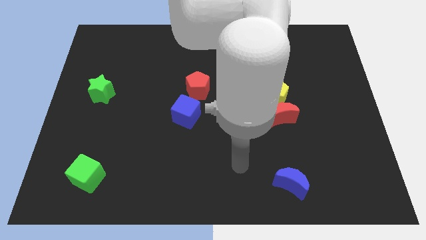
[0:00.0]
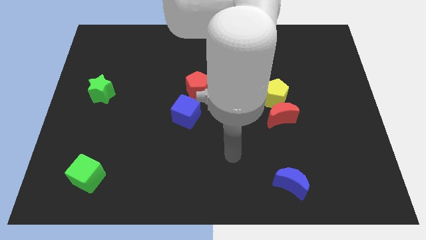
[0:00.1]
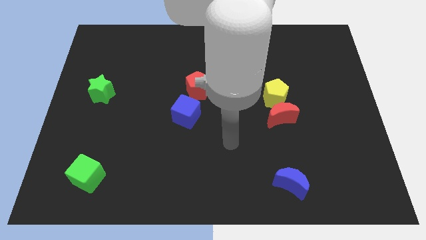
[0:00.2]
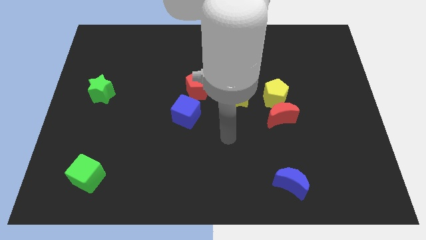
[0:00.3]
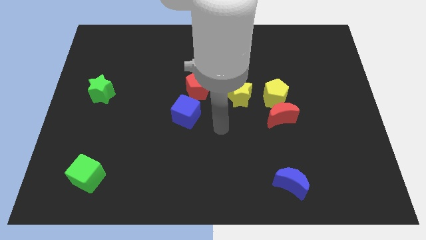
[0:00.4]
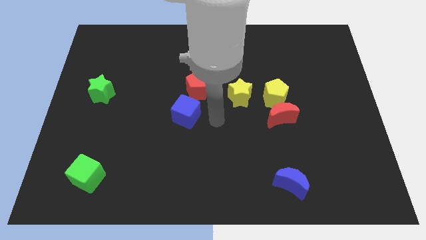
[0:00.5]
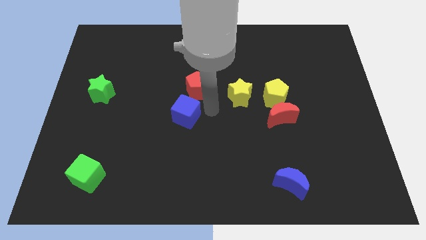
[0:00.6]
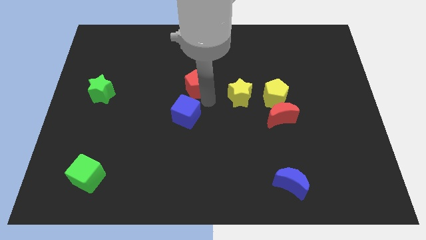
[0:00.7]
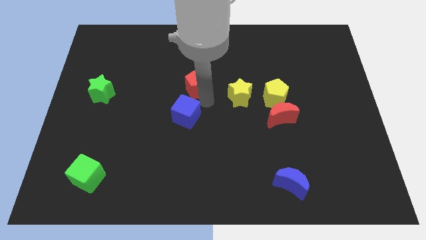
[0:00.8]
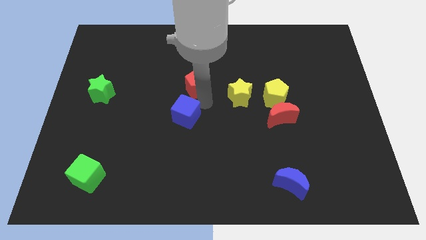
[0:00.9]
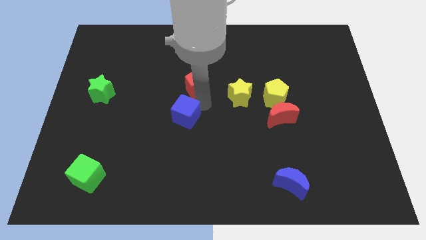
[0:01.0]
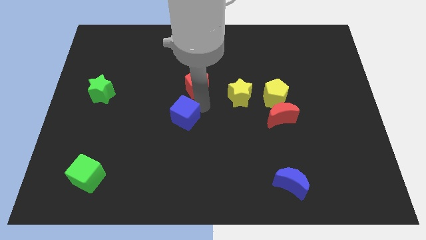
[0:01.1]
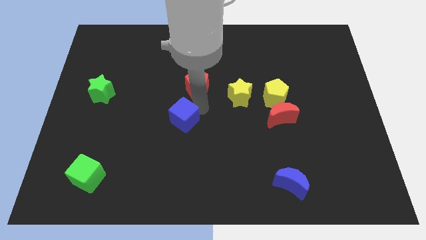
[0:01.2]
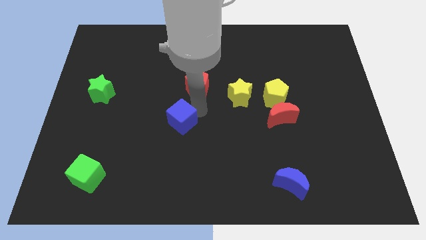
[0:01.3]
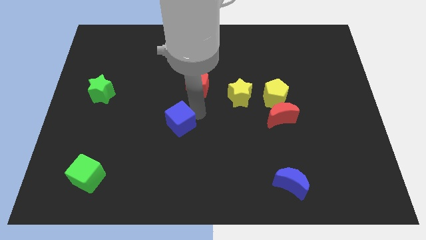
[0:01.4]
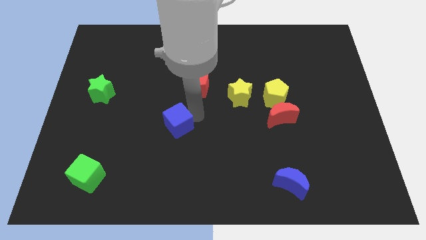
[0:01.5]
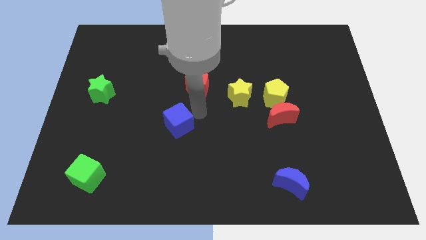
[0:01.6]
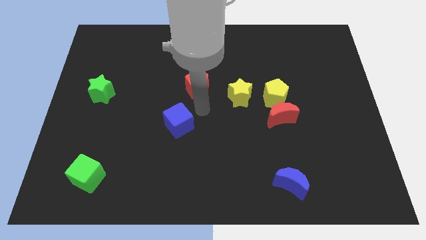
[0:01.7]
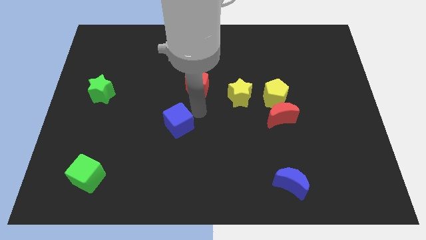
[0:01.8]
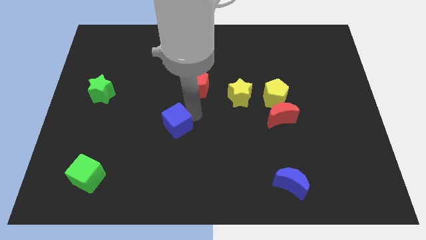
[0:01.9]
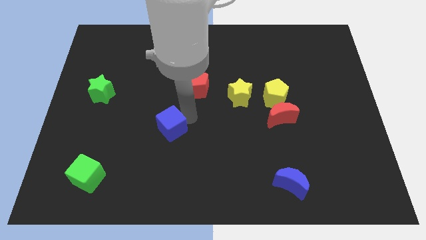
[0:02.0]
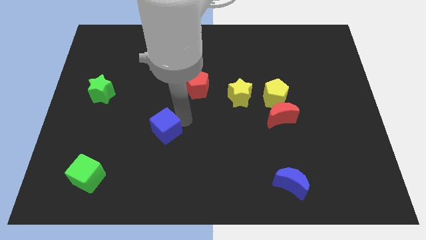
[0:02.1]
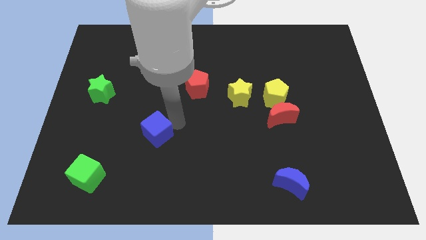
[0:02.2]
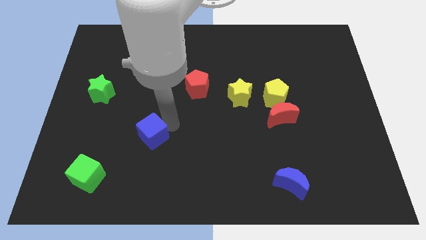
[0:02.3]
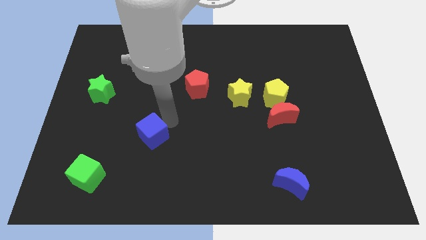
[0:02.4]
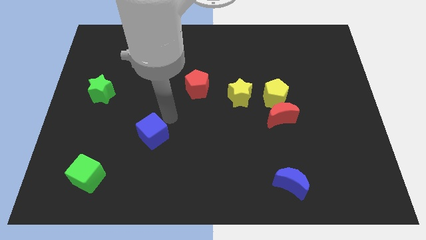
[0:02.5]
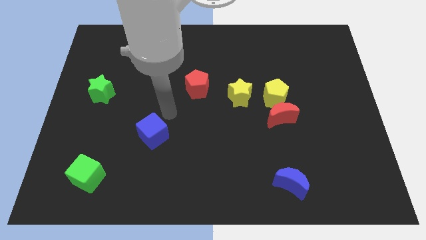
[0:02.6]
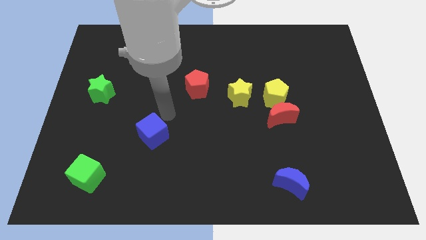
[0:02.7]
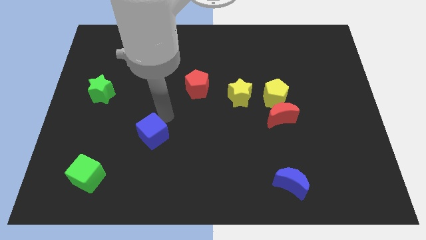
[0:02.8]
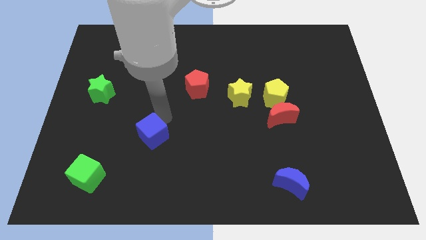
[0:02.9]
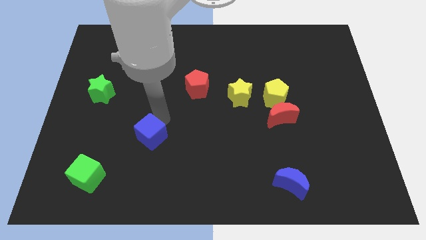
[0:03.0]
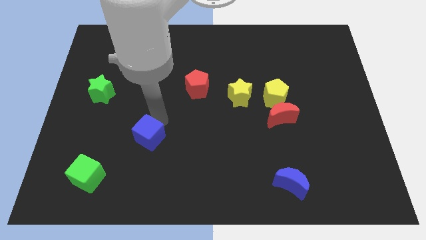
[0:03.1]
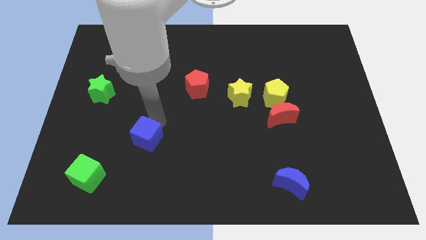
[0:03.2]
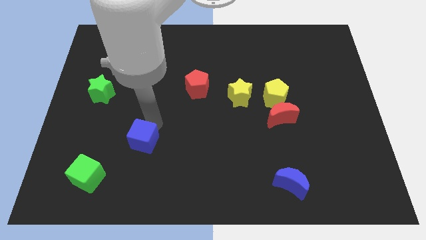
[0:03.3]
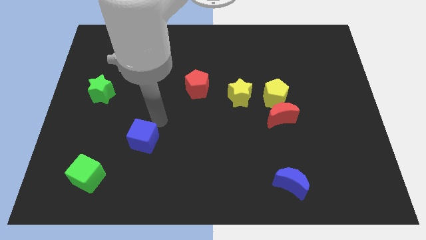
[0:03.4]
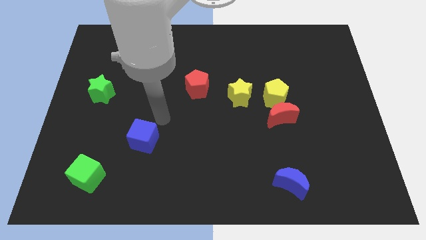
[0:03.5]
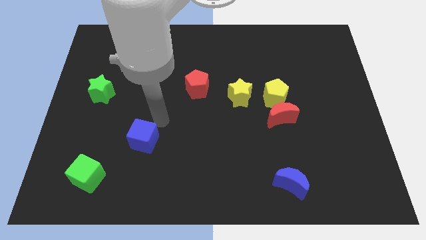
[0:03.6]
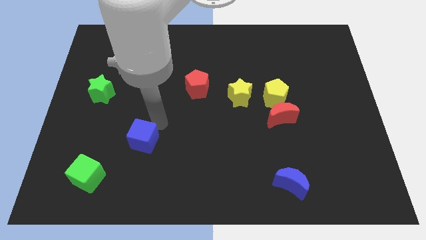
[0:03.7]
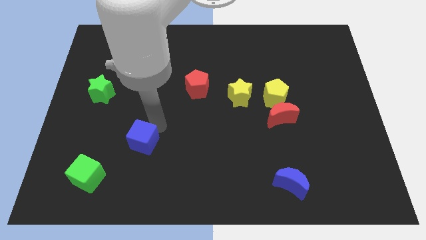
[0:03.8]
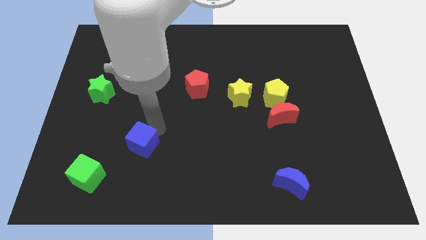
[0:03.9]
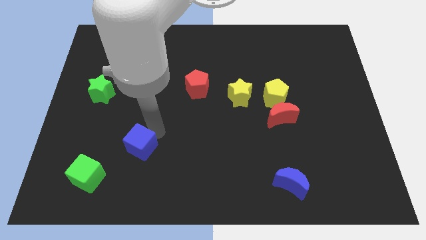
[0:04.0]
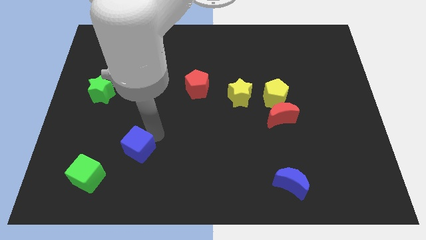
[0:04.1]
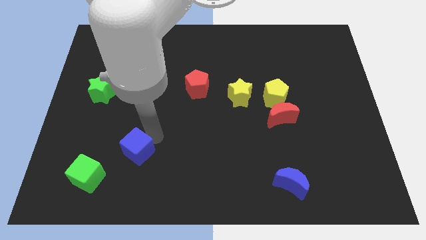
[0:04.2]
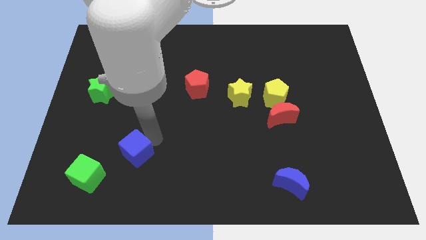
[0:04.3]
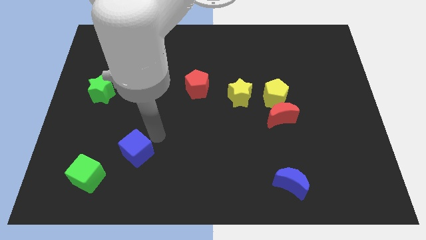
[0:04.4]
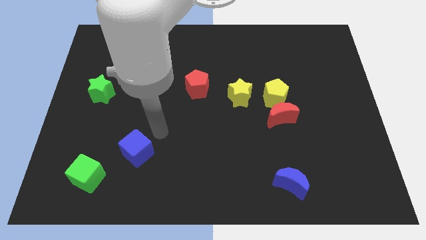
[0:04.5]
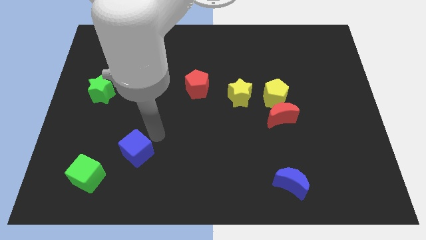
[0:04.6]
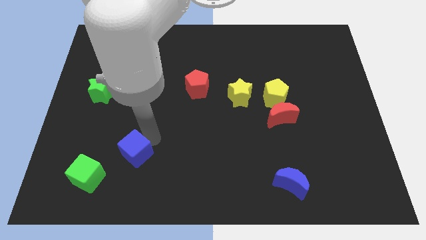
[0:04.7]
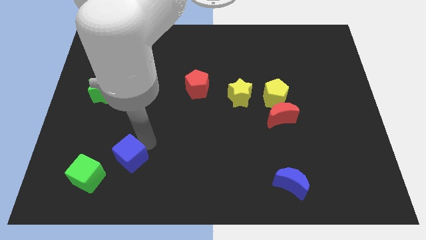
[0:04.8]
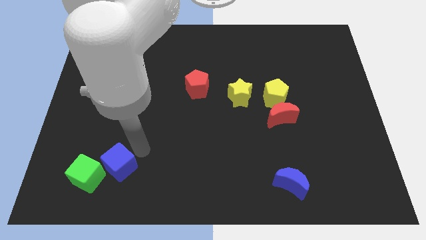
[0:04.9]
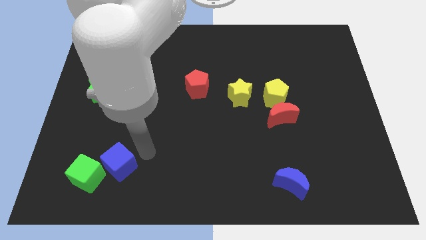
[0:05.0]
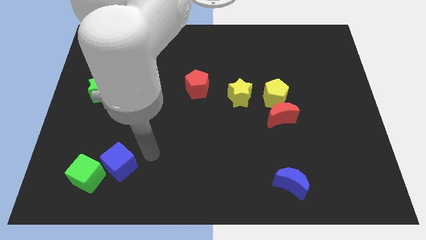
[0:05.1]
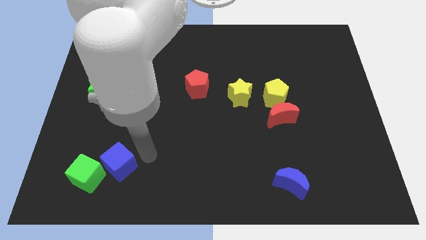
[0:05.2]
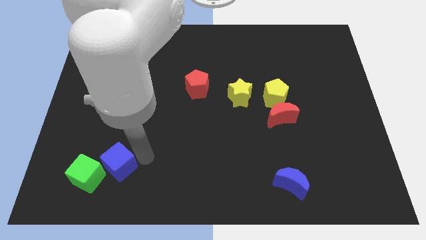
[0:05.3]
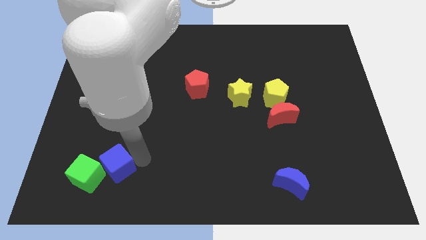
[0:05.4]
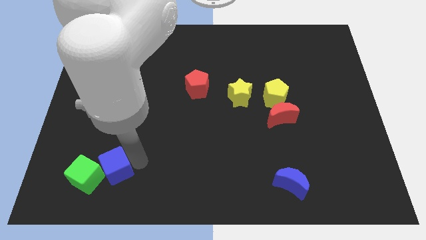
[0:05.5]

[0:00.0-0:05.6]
put the blue cube towards the green cube

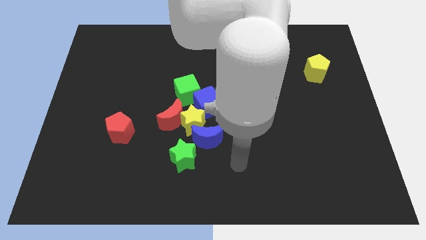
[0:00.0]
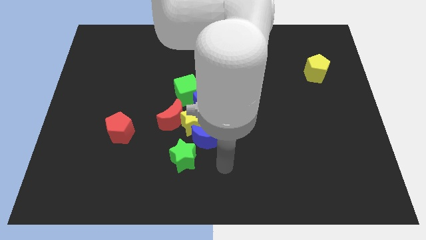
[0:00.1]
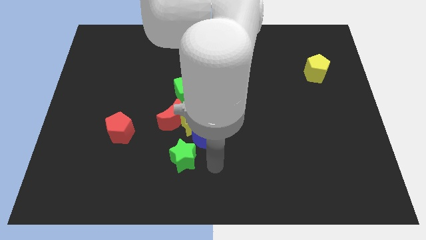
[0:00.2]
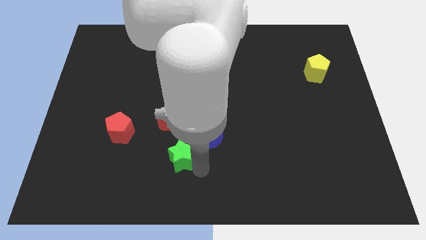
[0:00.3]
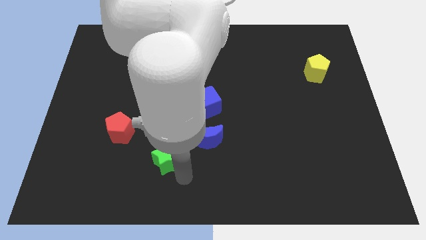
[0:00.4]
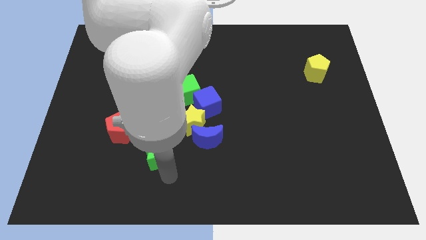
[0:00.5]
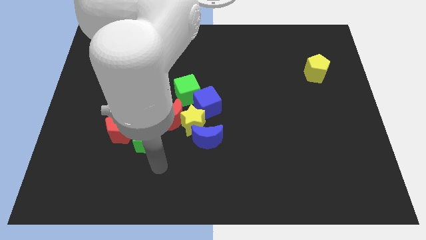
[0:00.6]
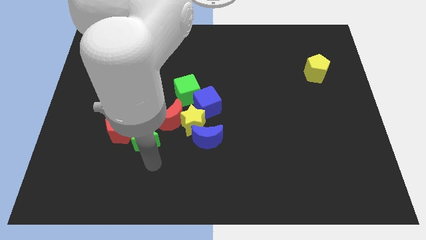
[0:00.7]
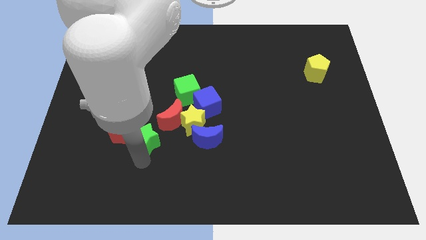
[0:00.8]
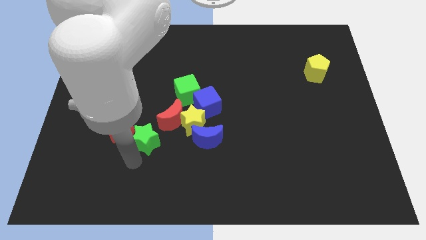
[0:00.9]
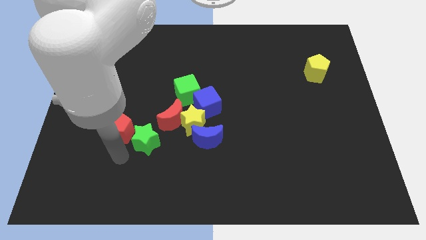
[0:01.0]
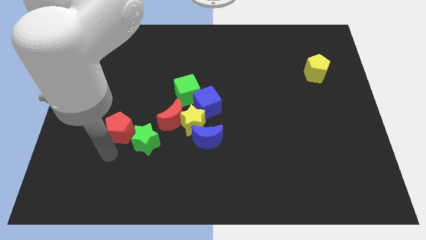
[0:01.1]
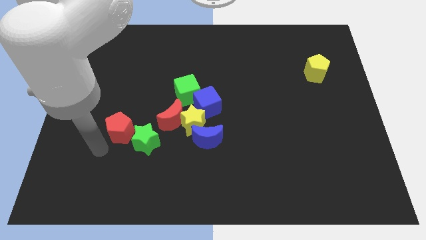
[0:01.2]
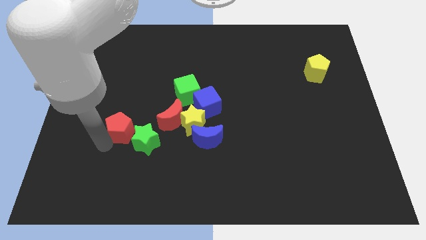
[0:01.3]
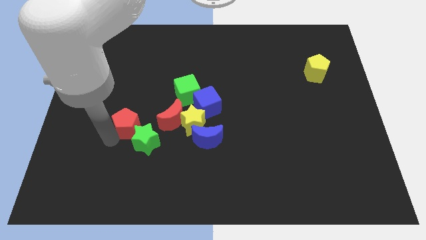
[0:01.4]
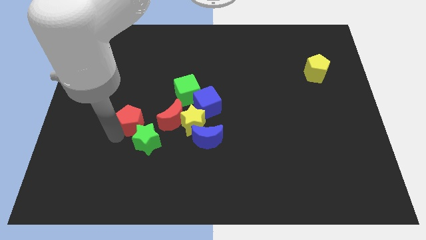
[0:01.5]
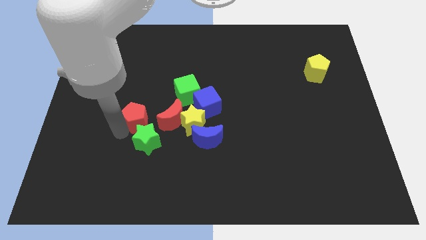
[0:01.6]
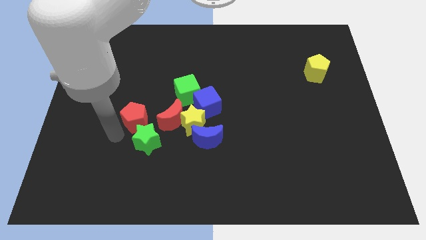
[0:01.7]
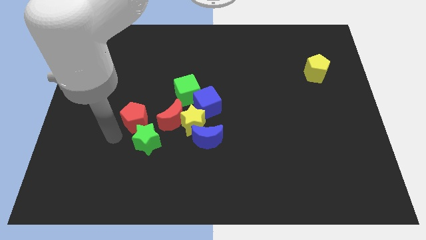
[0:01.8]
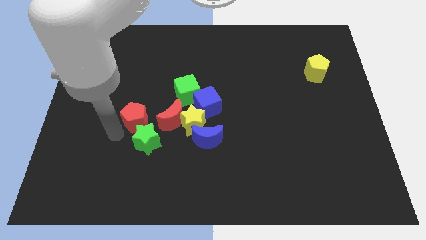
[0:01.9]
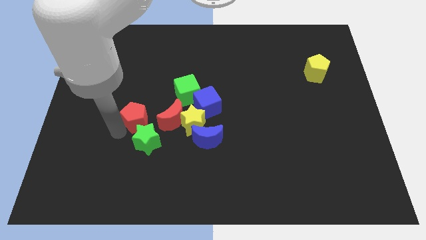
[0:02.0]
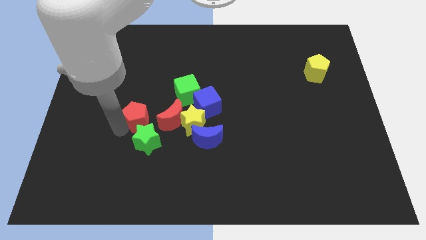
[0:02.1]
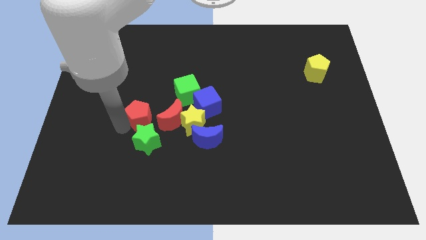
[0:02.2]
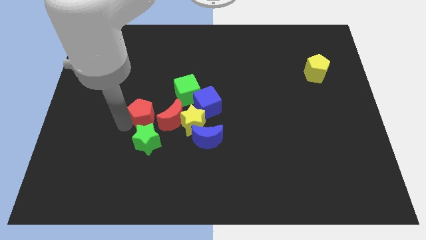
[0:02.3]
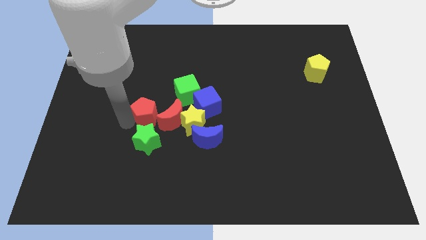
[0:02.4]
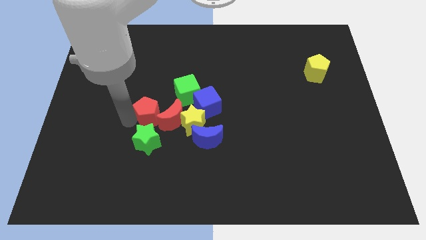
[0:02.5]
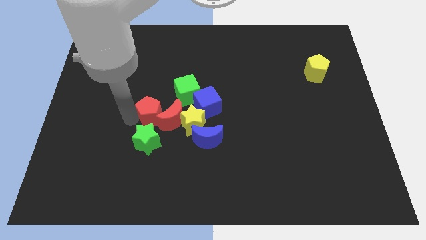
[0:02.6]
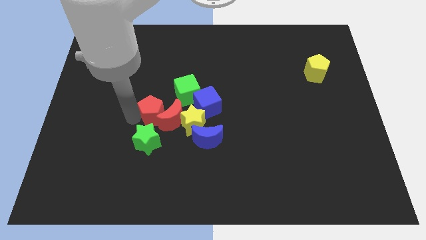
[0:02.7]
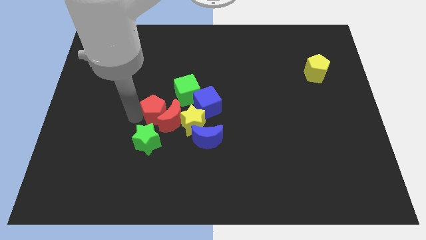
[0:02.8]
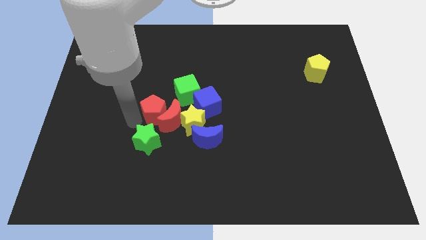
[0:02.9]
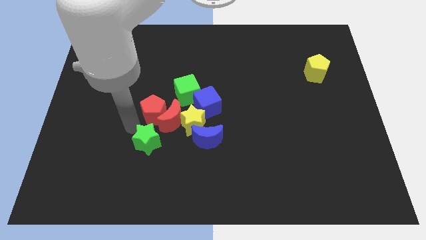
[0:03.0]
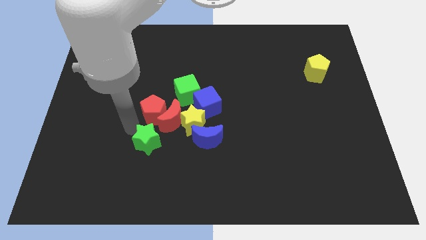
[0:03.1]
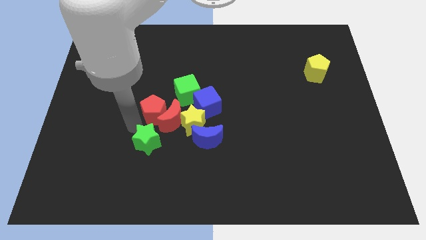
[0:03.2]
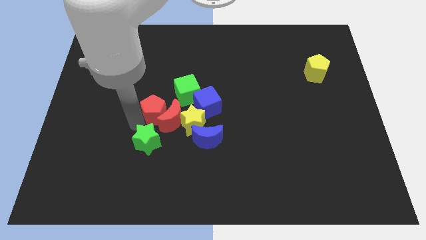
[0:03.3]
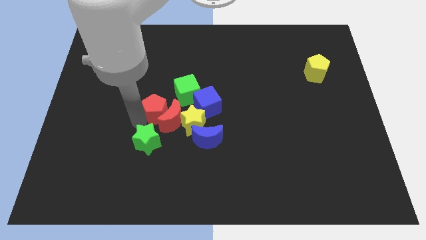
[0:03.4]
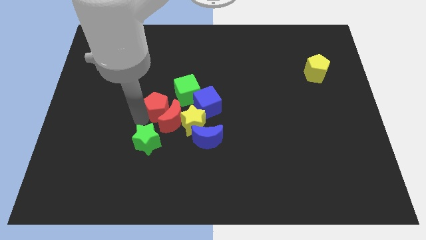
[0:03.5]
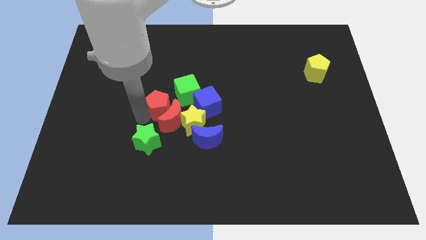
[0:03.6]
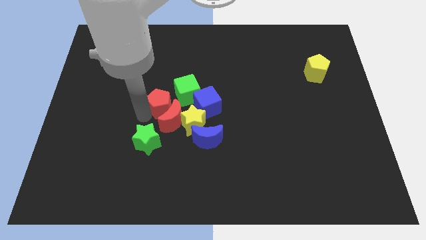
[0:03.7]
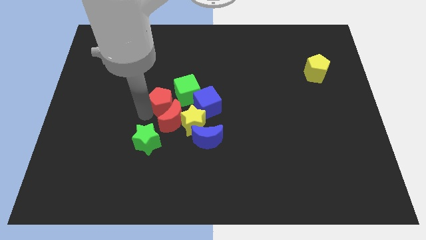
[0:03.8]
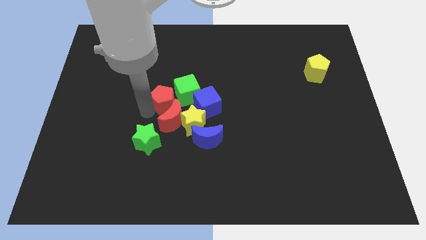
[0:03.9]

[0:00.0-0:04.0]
slide the red pentagon close to the green cube
